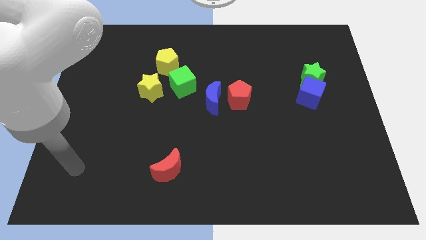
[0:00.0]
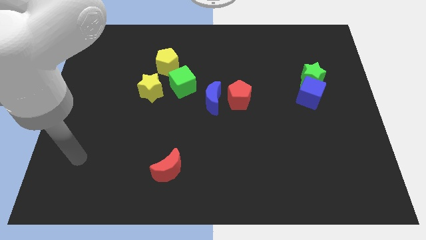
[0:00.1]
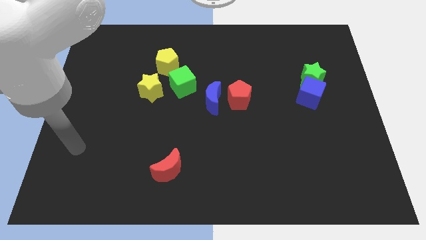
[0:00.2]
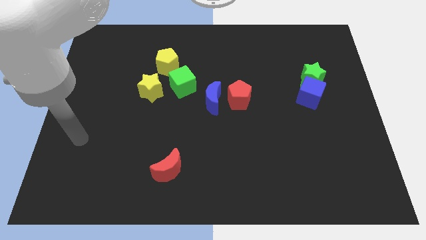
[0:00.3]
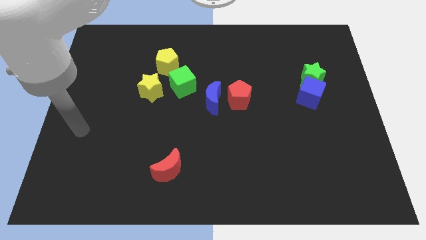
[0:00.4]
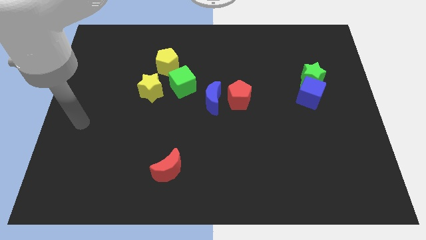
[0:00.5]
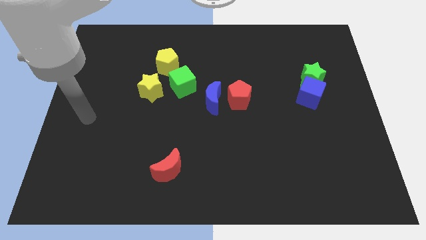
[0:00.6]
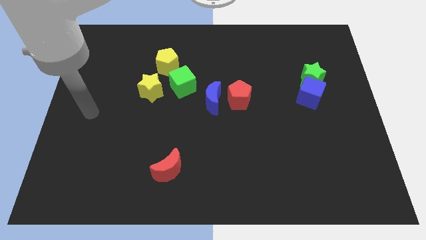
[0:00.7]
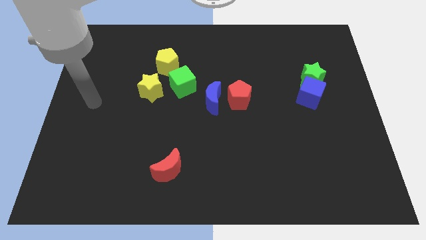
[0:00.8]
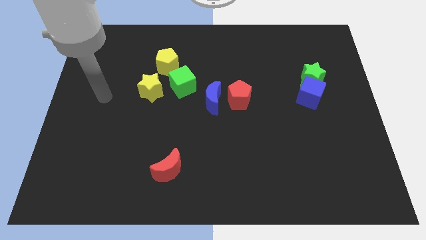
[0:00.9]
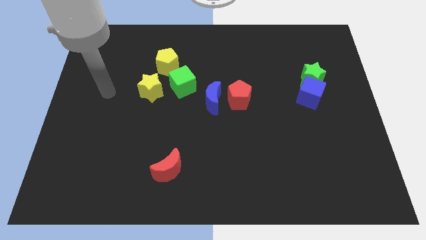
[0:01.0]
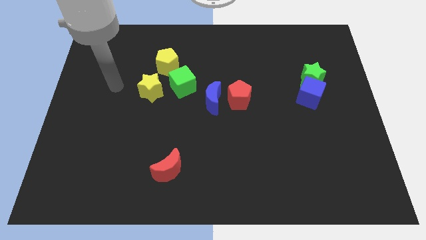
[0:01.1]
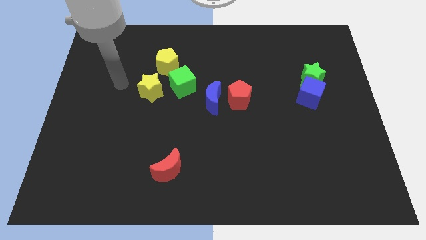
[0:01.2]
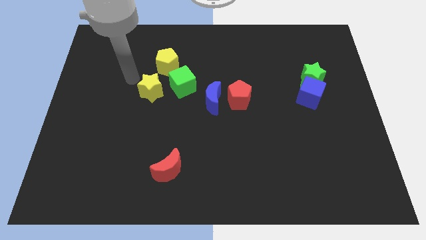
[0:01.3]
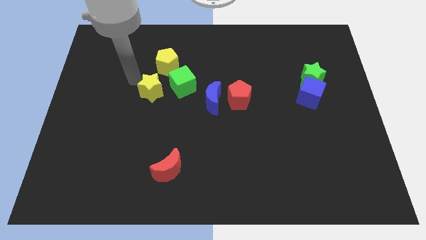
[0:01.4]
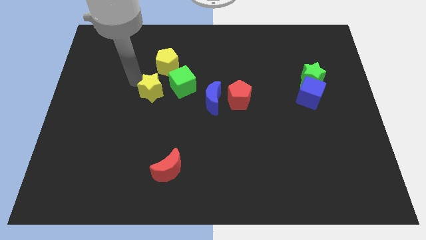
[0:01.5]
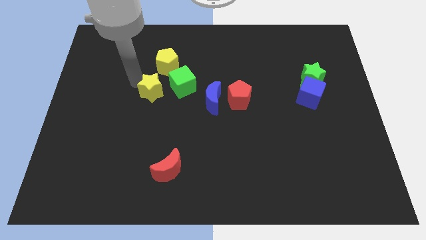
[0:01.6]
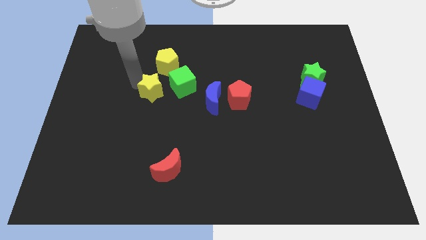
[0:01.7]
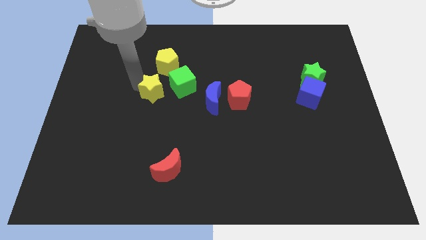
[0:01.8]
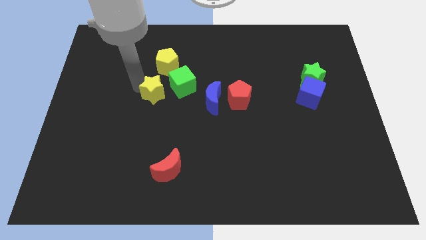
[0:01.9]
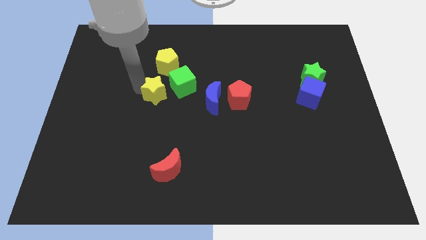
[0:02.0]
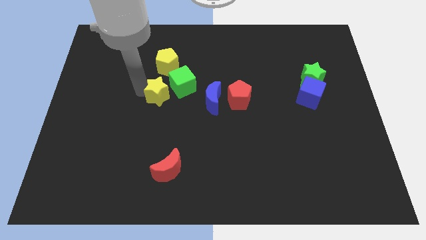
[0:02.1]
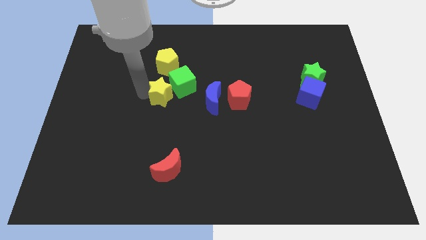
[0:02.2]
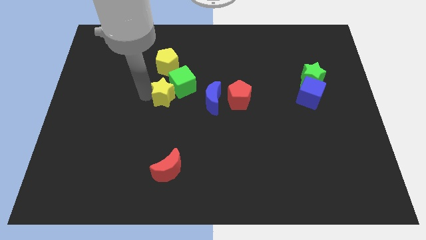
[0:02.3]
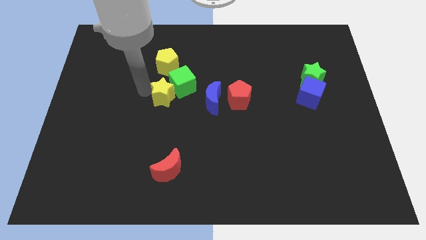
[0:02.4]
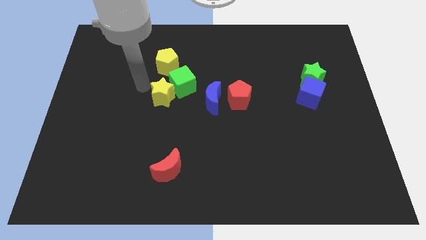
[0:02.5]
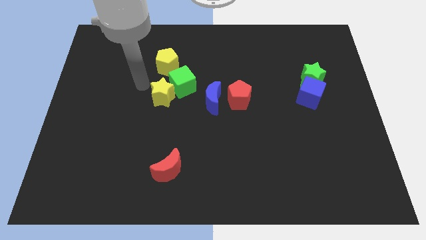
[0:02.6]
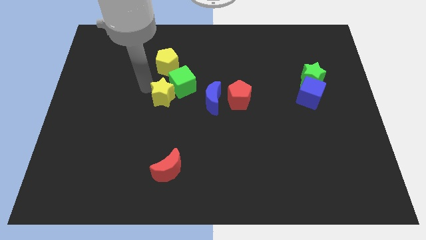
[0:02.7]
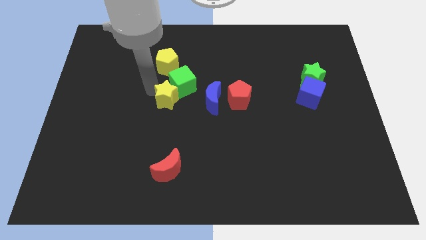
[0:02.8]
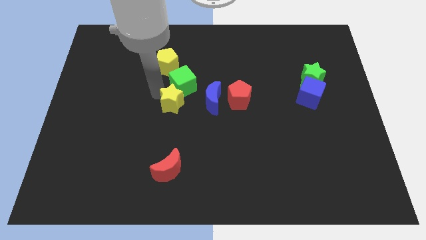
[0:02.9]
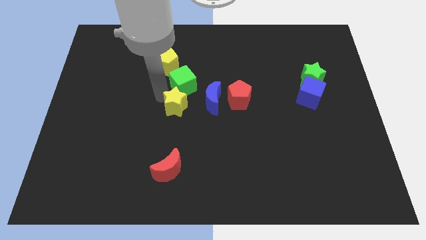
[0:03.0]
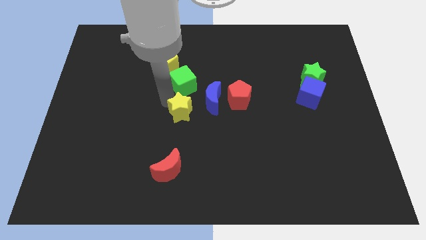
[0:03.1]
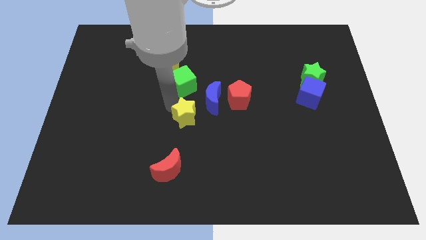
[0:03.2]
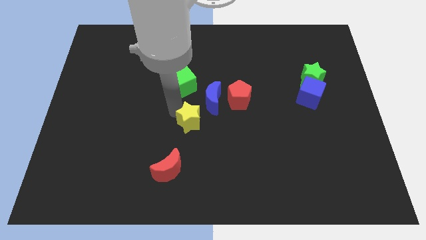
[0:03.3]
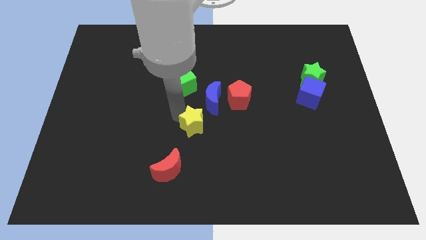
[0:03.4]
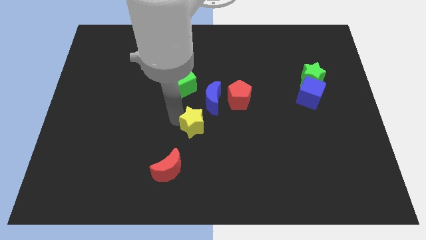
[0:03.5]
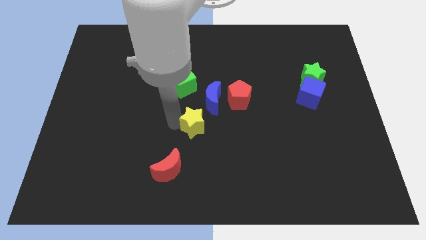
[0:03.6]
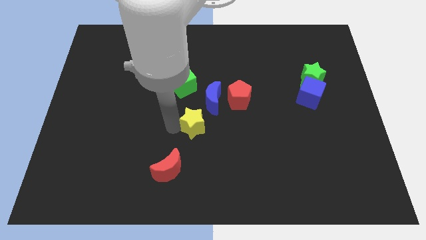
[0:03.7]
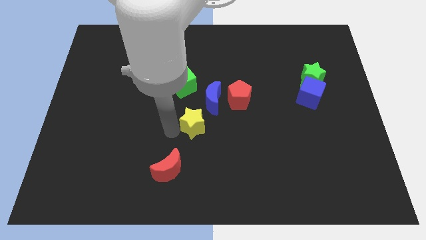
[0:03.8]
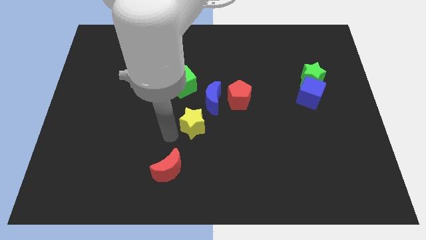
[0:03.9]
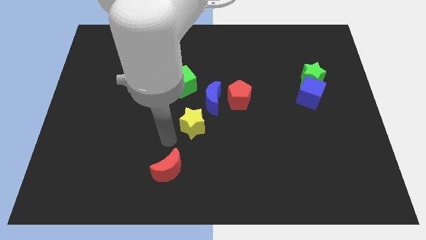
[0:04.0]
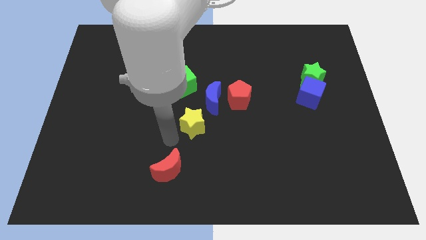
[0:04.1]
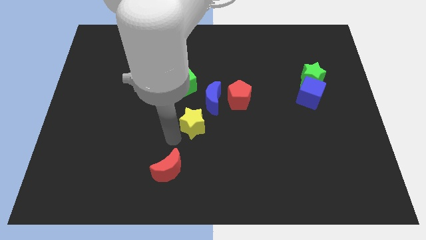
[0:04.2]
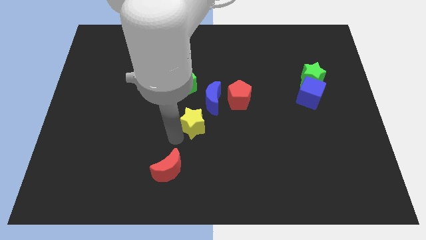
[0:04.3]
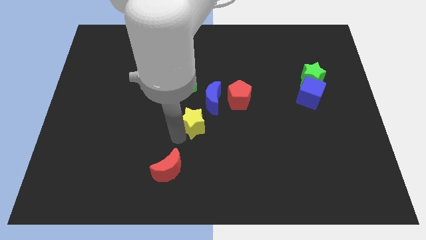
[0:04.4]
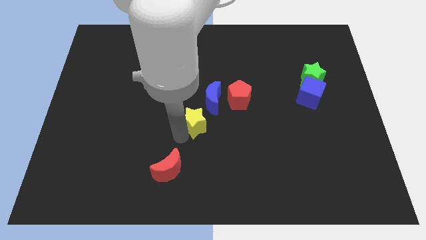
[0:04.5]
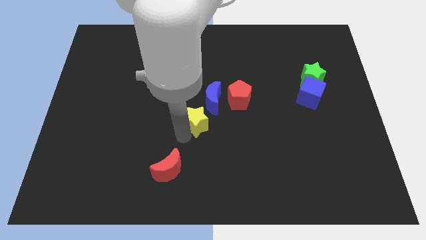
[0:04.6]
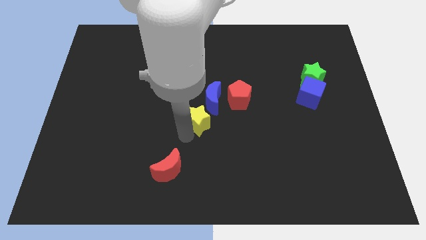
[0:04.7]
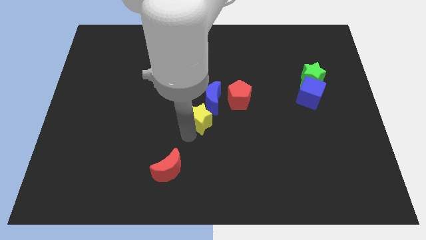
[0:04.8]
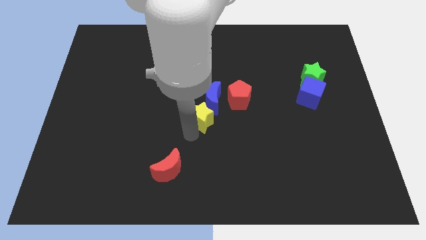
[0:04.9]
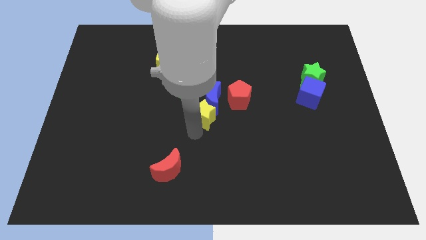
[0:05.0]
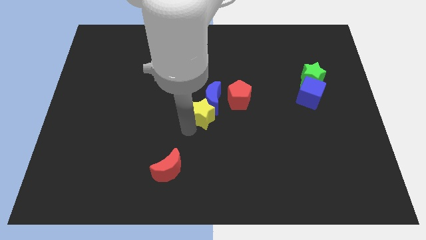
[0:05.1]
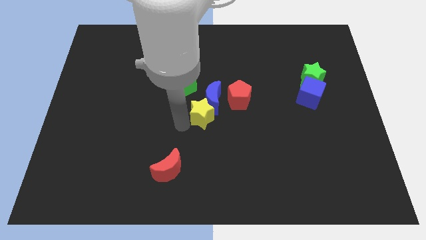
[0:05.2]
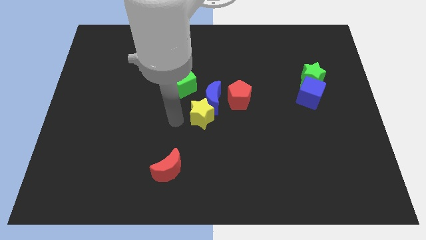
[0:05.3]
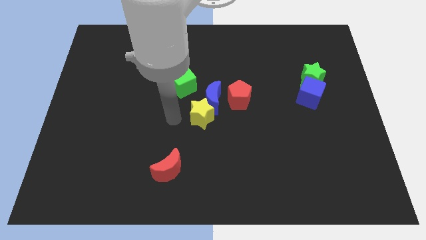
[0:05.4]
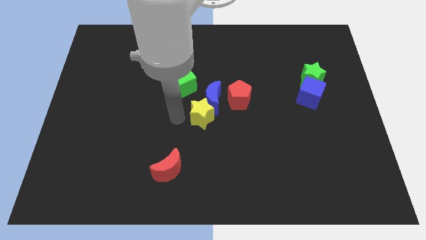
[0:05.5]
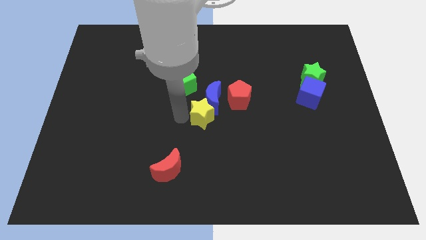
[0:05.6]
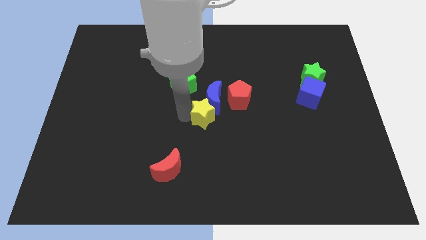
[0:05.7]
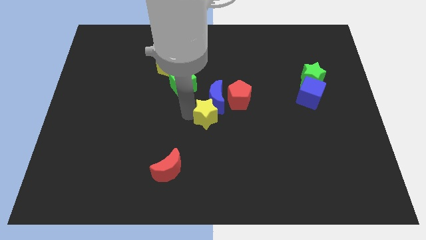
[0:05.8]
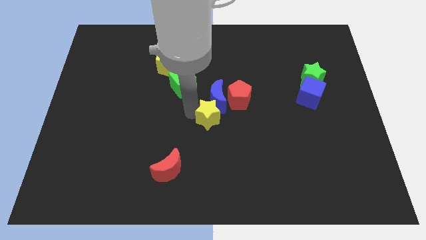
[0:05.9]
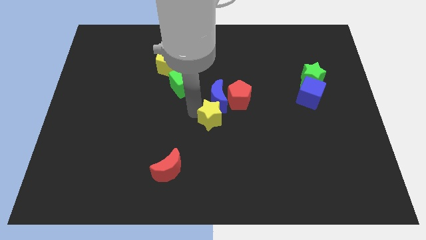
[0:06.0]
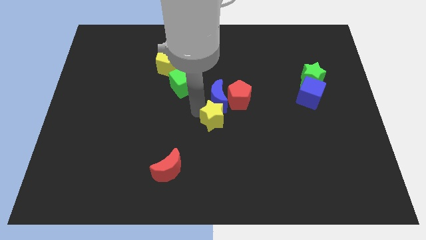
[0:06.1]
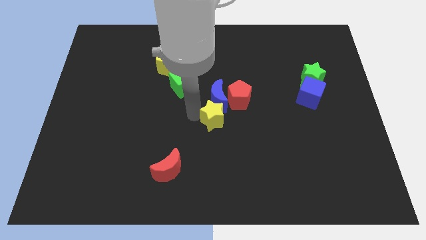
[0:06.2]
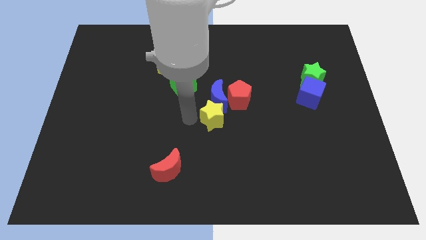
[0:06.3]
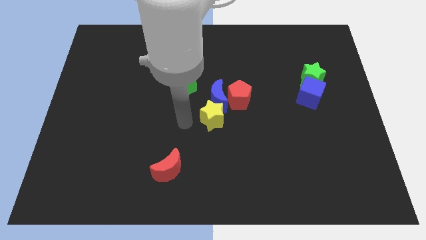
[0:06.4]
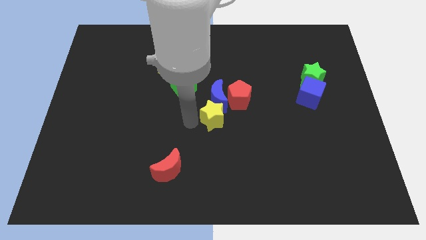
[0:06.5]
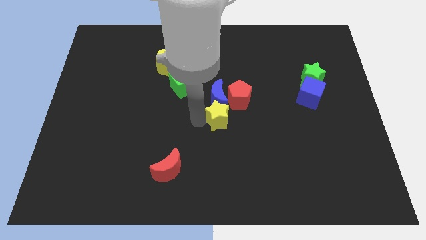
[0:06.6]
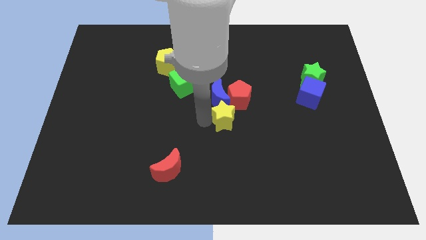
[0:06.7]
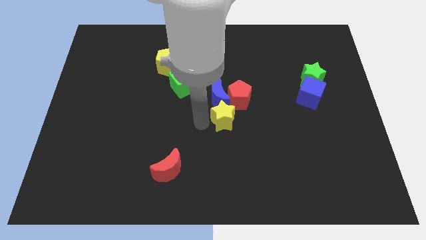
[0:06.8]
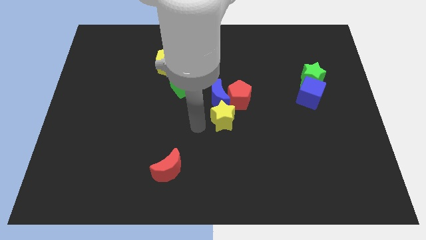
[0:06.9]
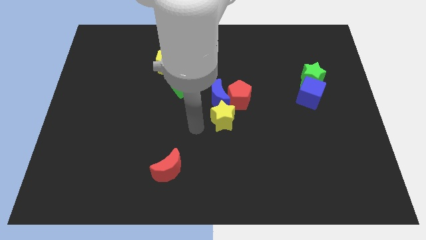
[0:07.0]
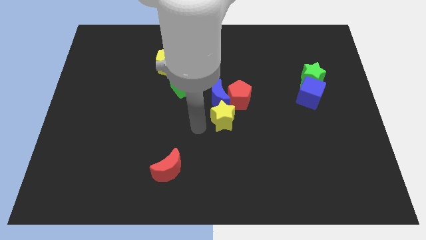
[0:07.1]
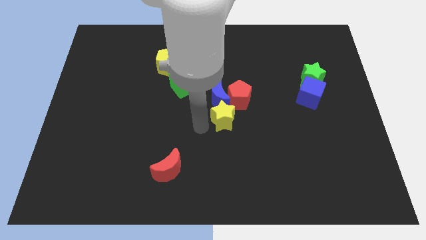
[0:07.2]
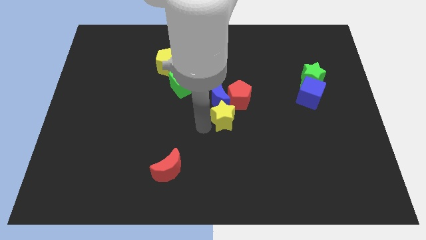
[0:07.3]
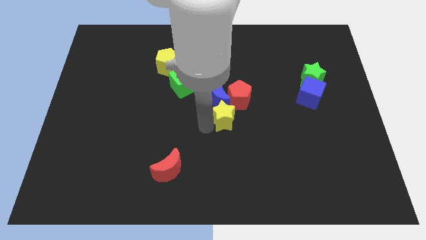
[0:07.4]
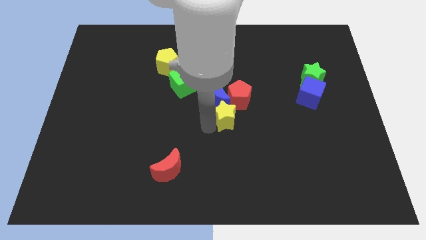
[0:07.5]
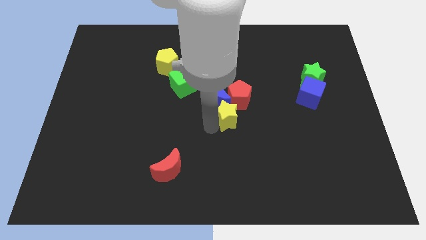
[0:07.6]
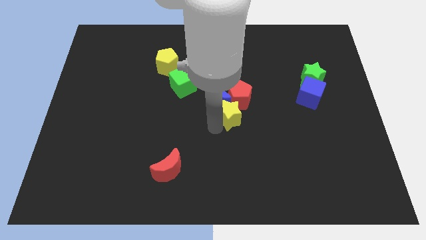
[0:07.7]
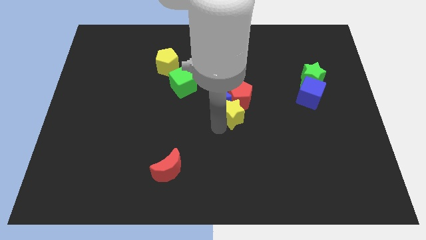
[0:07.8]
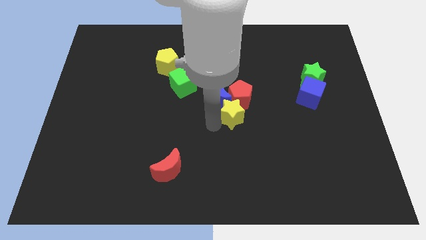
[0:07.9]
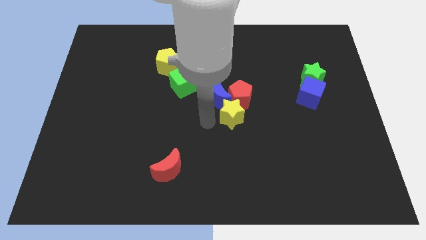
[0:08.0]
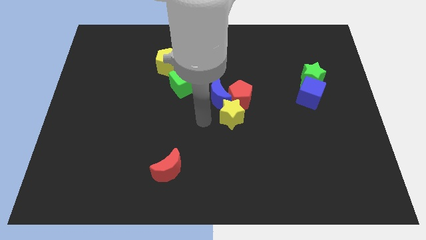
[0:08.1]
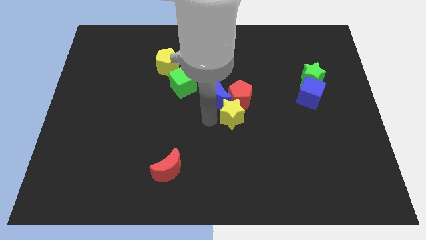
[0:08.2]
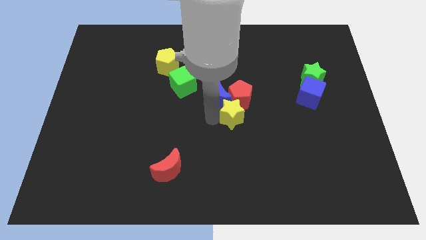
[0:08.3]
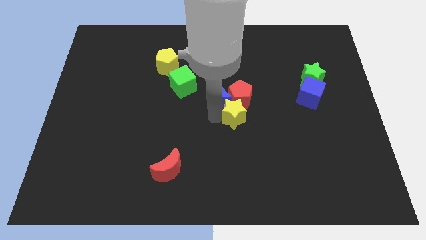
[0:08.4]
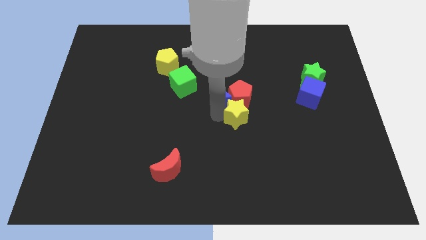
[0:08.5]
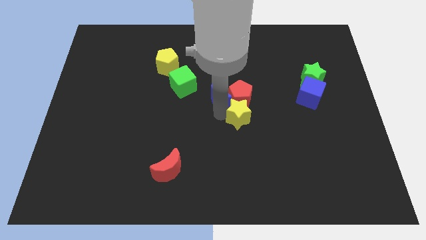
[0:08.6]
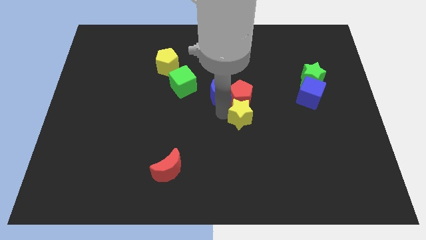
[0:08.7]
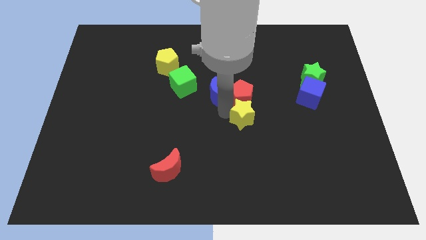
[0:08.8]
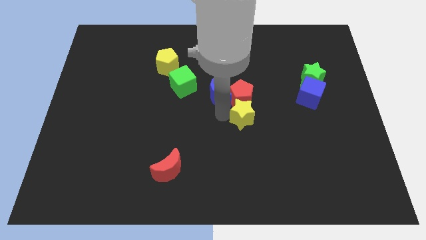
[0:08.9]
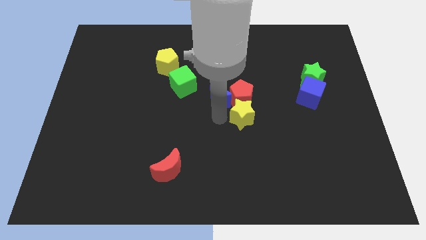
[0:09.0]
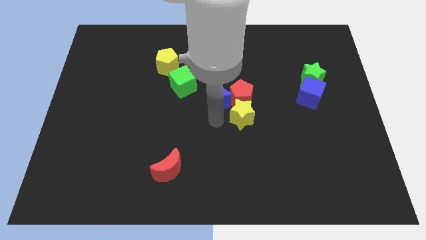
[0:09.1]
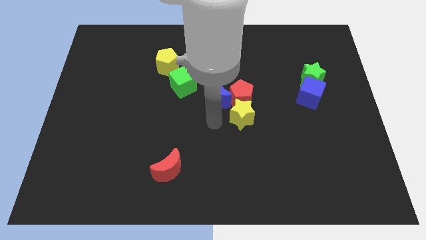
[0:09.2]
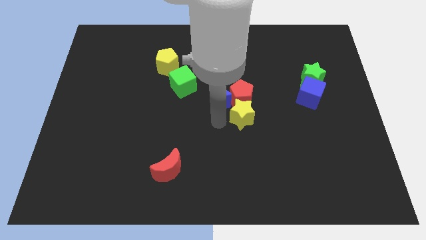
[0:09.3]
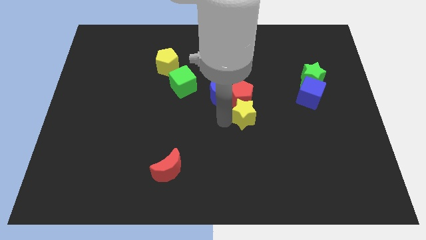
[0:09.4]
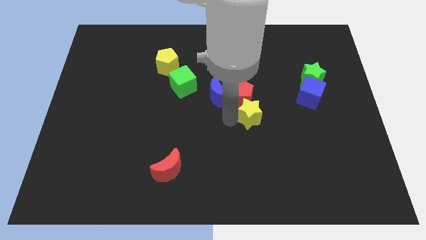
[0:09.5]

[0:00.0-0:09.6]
slide the yellow star right
